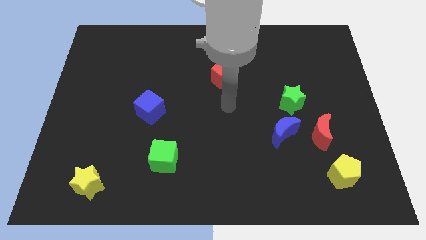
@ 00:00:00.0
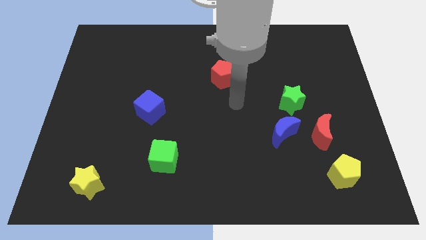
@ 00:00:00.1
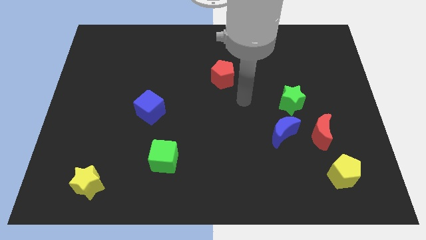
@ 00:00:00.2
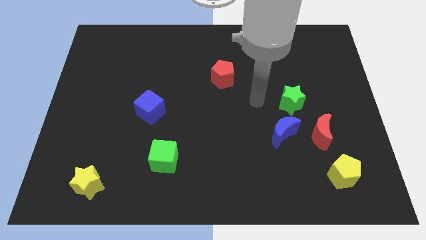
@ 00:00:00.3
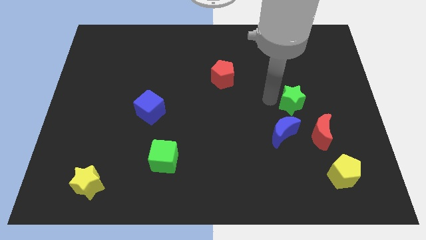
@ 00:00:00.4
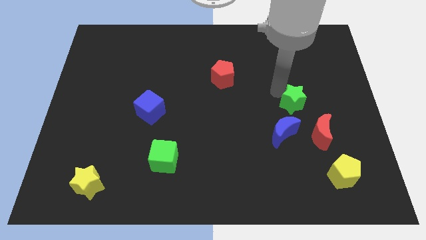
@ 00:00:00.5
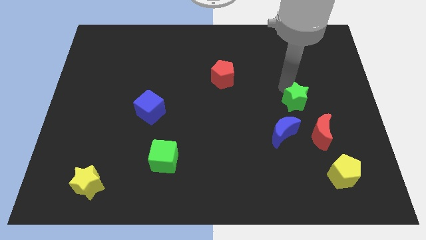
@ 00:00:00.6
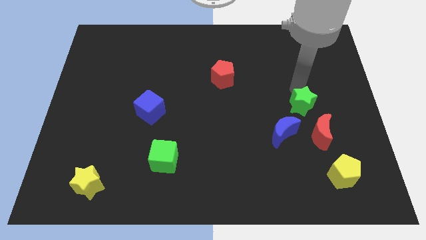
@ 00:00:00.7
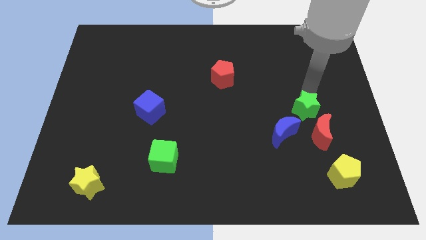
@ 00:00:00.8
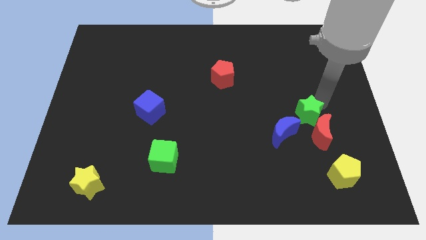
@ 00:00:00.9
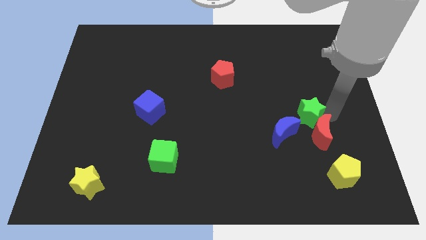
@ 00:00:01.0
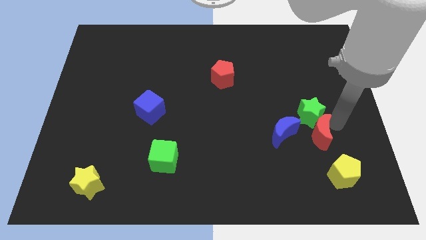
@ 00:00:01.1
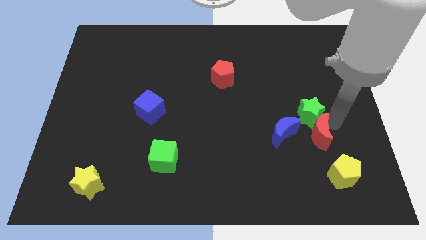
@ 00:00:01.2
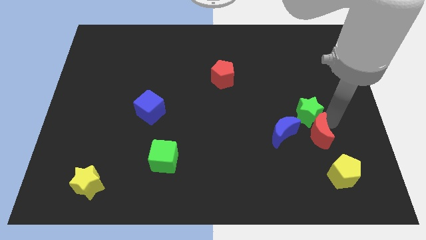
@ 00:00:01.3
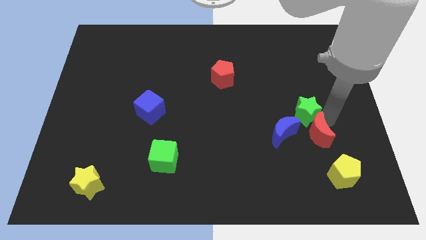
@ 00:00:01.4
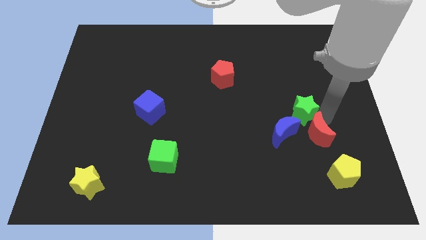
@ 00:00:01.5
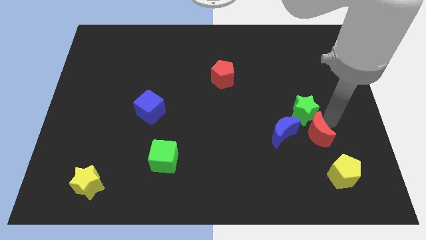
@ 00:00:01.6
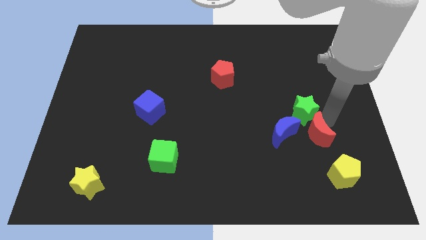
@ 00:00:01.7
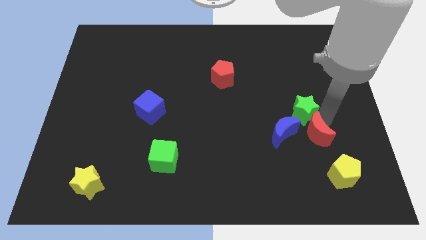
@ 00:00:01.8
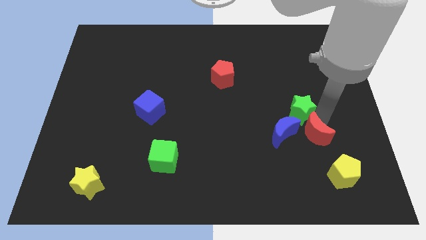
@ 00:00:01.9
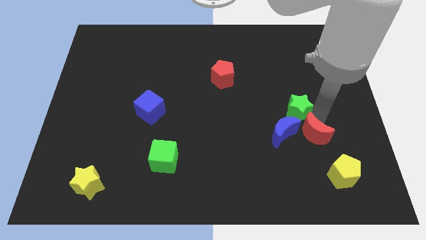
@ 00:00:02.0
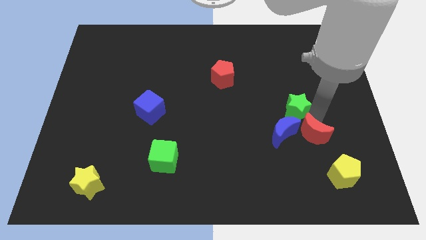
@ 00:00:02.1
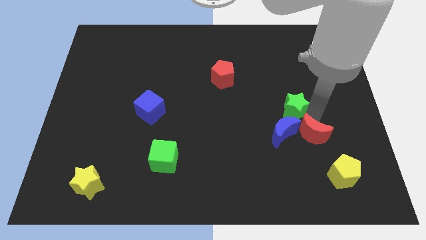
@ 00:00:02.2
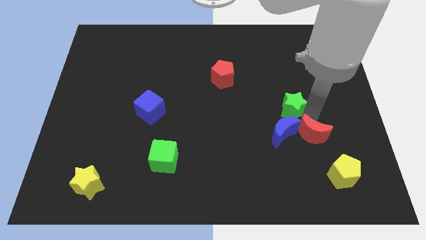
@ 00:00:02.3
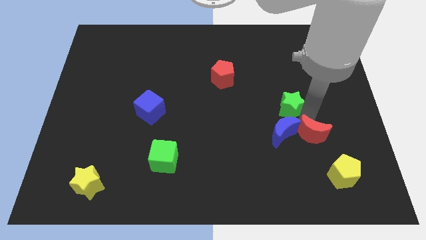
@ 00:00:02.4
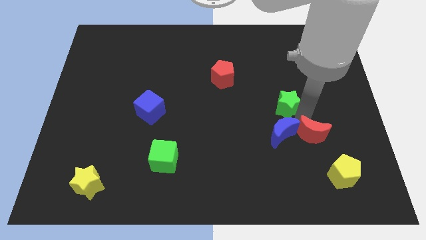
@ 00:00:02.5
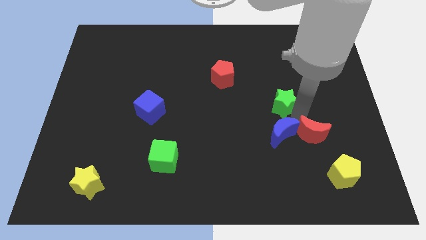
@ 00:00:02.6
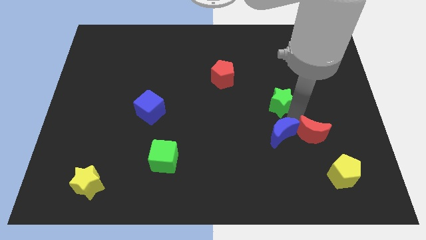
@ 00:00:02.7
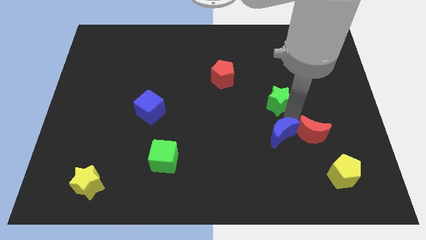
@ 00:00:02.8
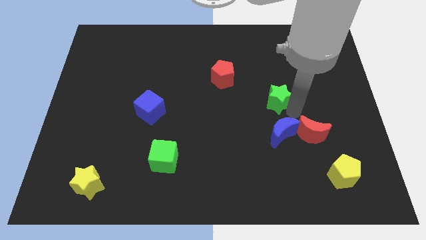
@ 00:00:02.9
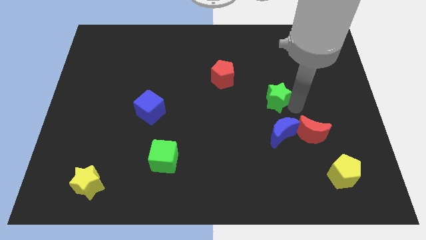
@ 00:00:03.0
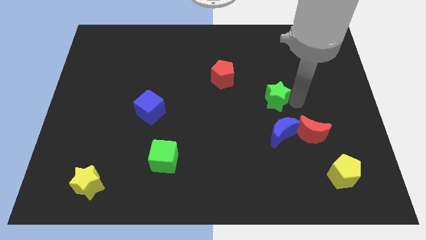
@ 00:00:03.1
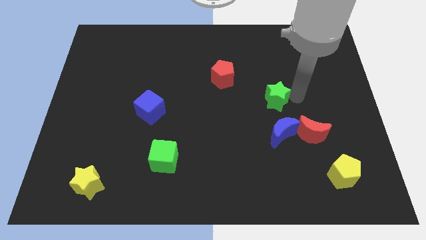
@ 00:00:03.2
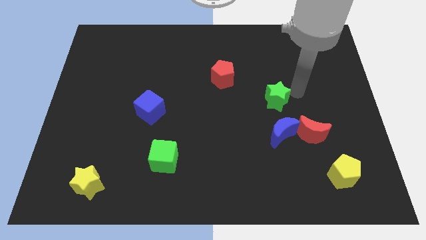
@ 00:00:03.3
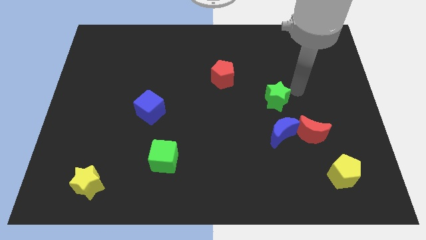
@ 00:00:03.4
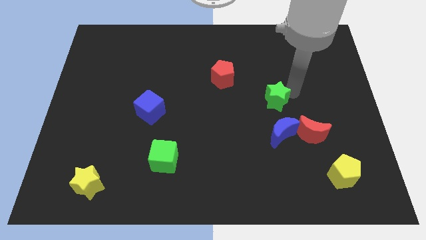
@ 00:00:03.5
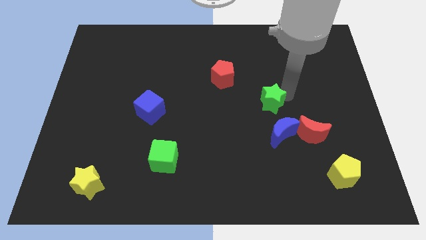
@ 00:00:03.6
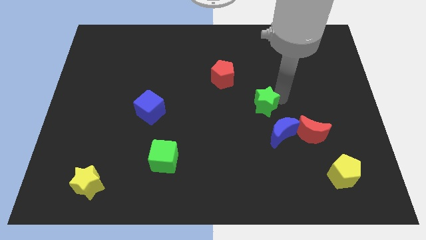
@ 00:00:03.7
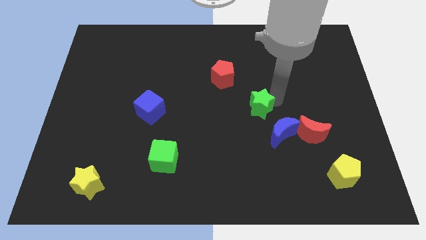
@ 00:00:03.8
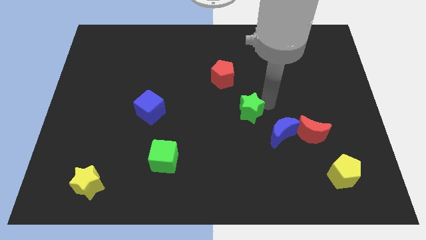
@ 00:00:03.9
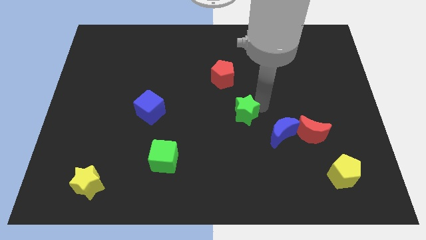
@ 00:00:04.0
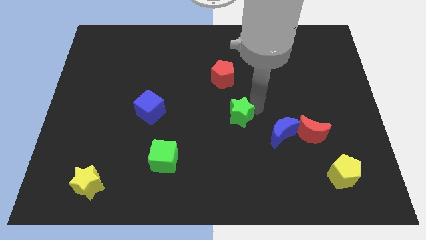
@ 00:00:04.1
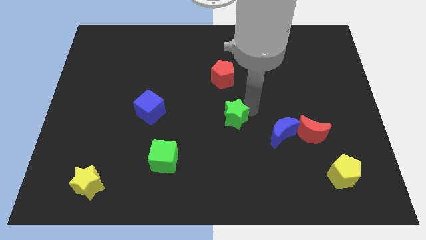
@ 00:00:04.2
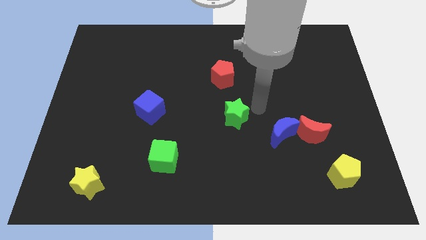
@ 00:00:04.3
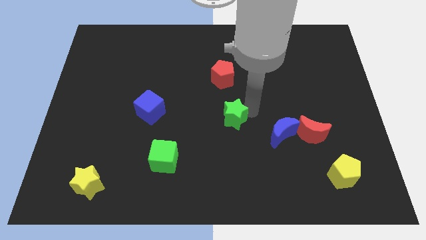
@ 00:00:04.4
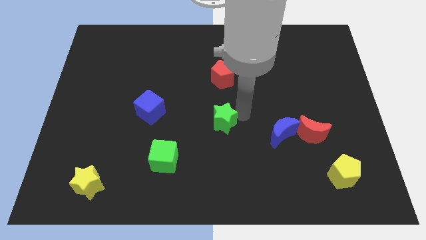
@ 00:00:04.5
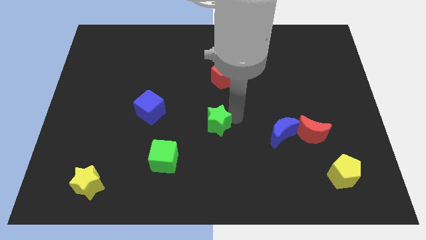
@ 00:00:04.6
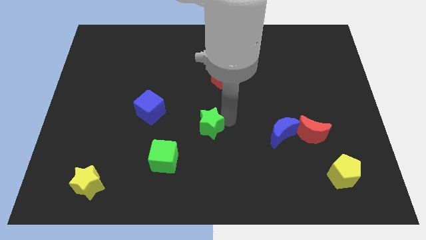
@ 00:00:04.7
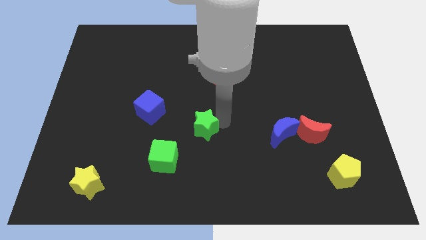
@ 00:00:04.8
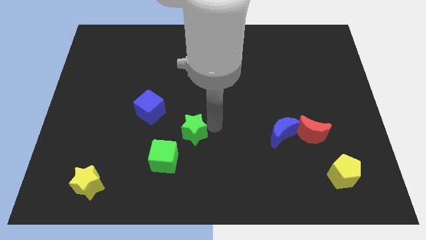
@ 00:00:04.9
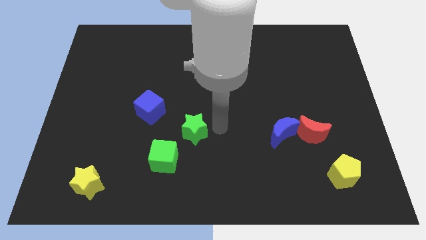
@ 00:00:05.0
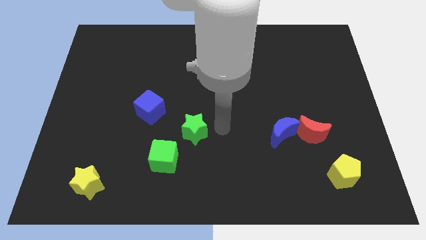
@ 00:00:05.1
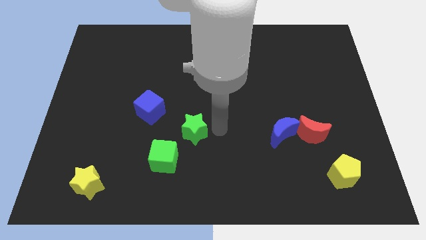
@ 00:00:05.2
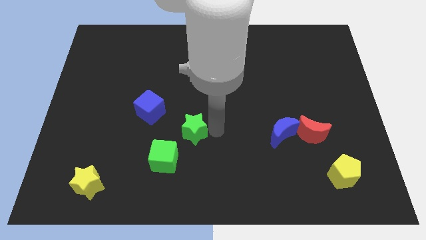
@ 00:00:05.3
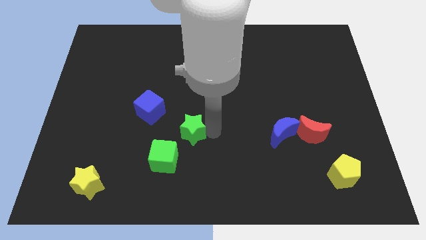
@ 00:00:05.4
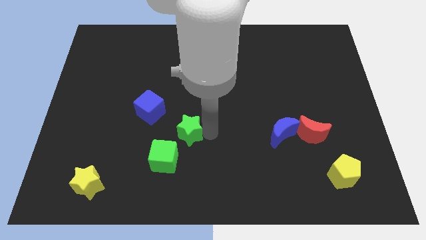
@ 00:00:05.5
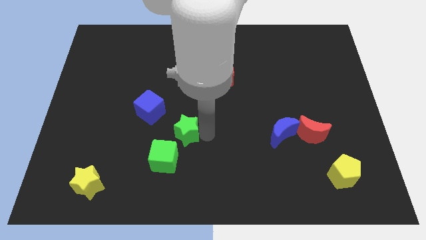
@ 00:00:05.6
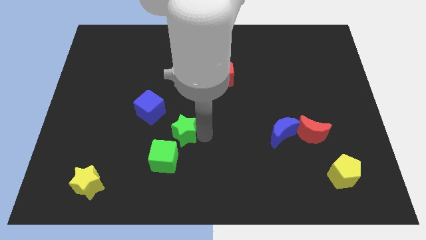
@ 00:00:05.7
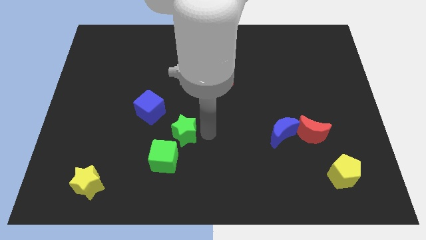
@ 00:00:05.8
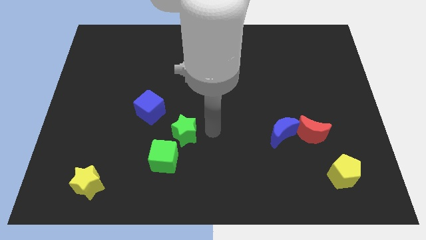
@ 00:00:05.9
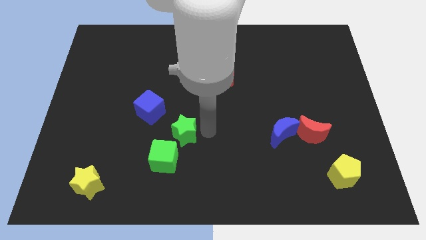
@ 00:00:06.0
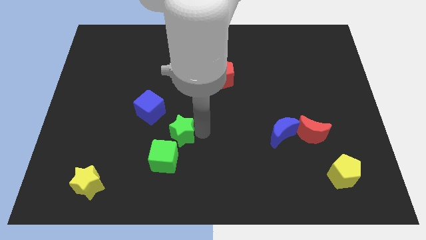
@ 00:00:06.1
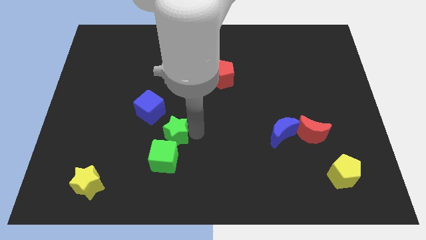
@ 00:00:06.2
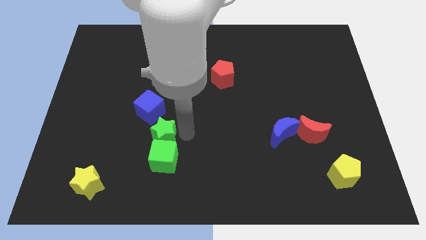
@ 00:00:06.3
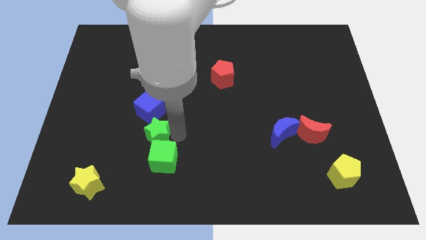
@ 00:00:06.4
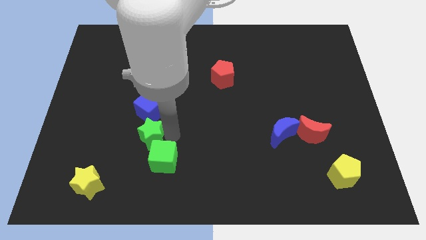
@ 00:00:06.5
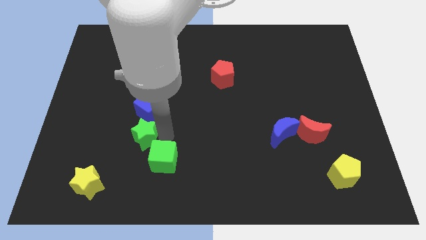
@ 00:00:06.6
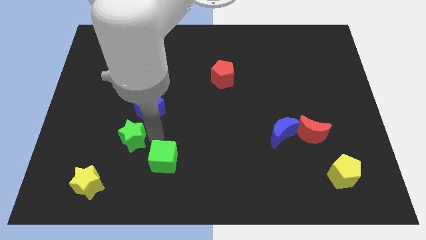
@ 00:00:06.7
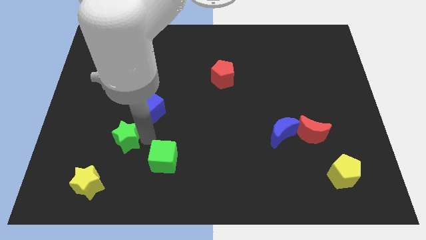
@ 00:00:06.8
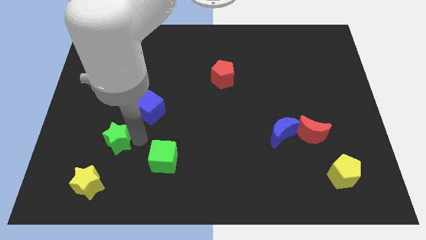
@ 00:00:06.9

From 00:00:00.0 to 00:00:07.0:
slide the green star above the yellow star

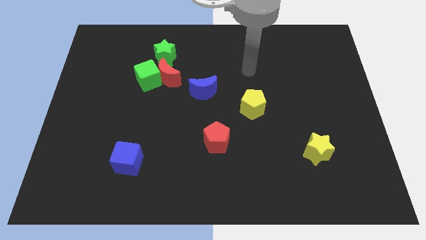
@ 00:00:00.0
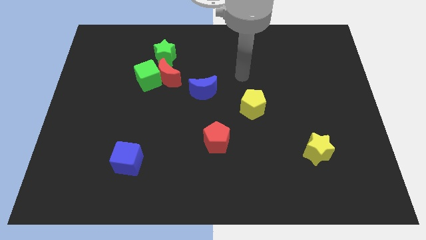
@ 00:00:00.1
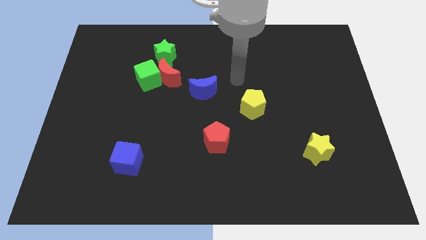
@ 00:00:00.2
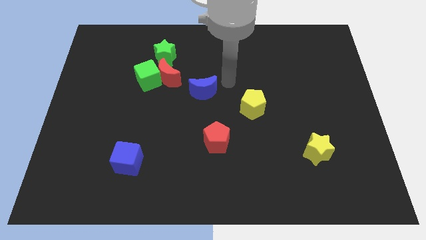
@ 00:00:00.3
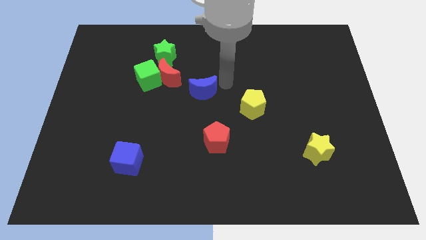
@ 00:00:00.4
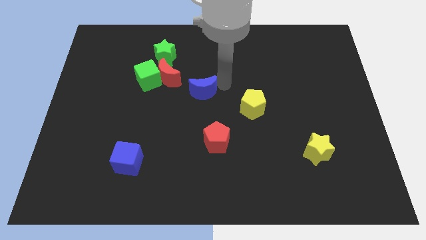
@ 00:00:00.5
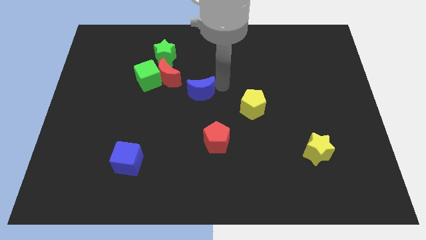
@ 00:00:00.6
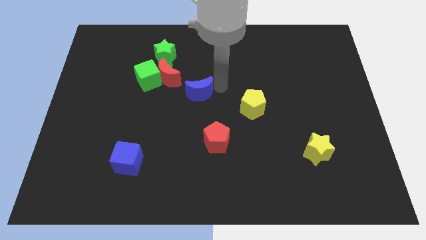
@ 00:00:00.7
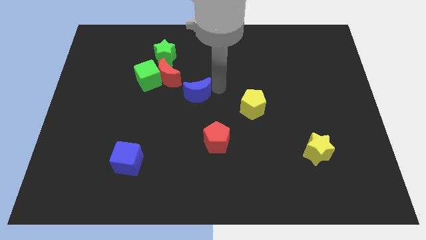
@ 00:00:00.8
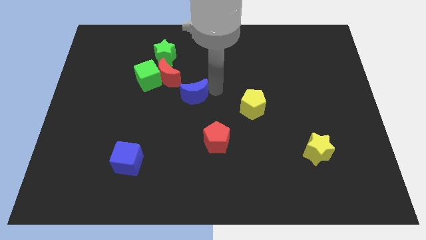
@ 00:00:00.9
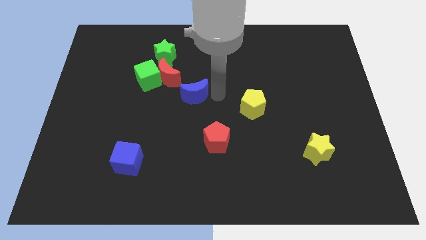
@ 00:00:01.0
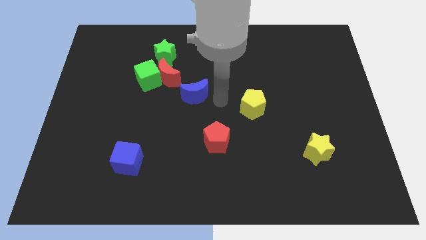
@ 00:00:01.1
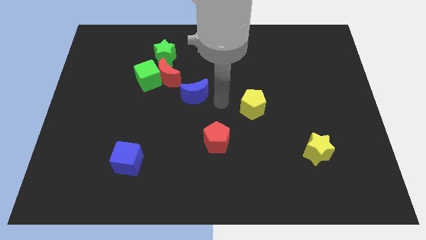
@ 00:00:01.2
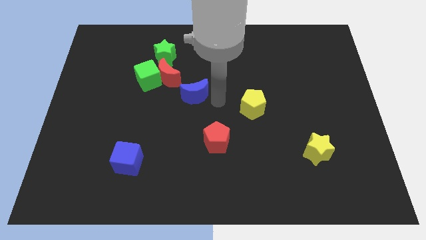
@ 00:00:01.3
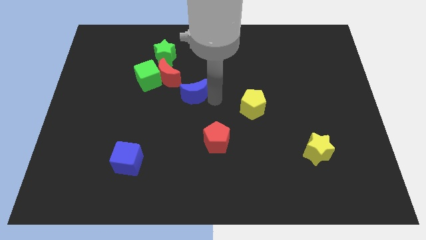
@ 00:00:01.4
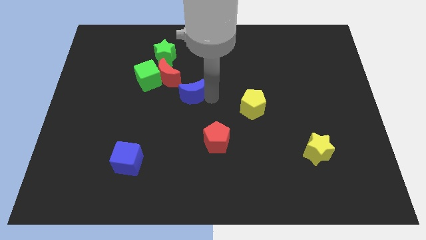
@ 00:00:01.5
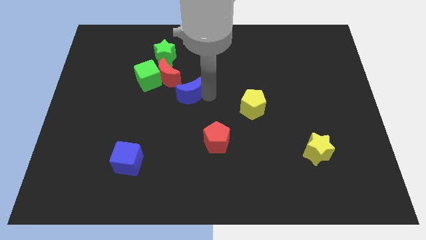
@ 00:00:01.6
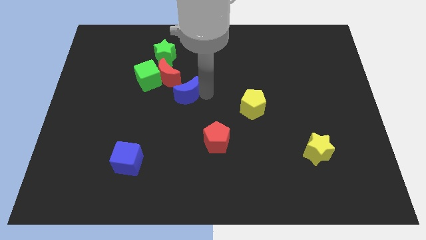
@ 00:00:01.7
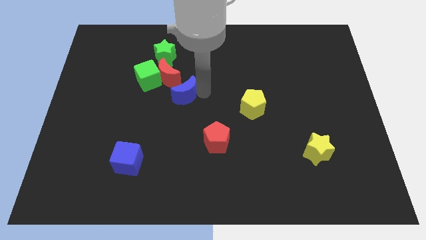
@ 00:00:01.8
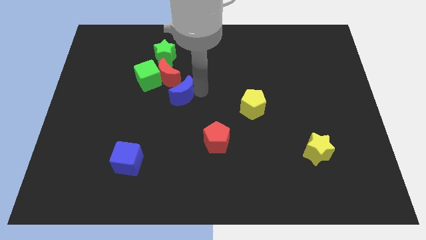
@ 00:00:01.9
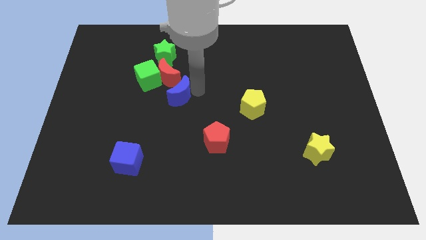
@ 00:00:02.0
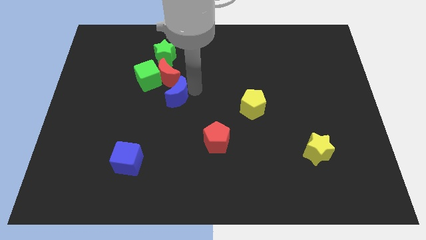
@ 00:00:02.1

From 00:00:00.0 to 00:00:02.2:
put the blue moon below the green star
